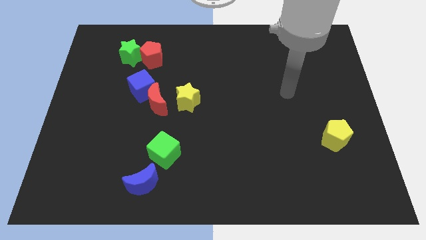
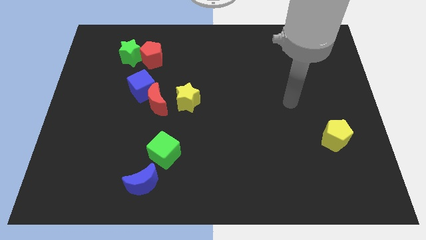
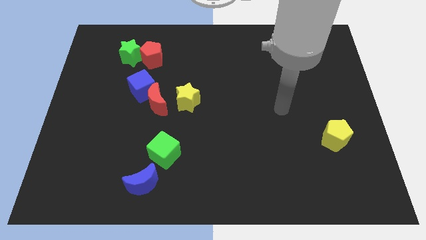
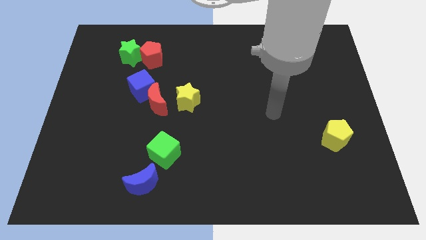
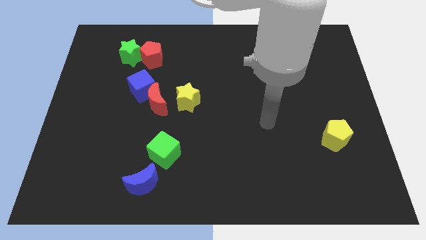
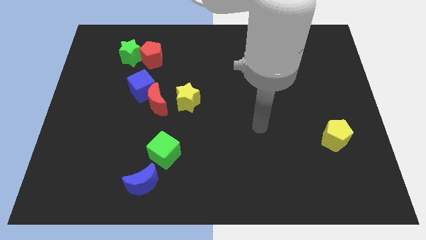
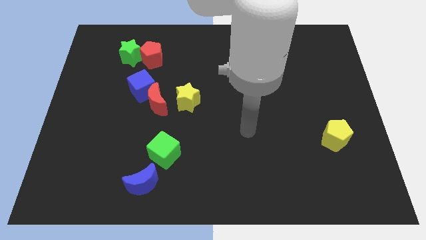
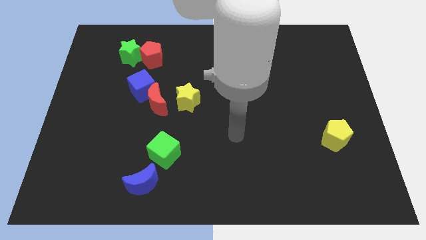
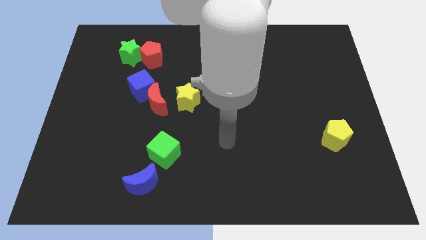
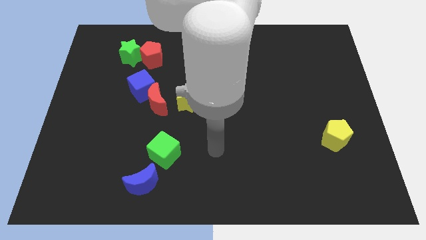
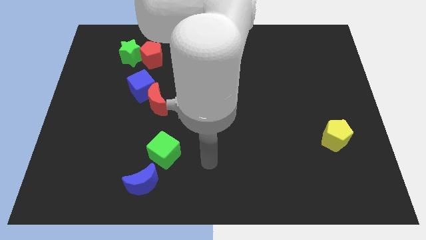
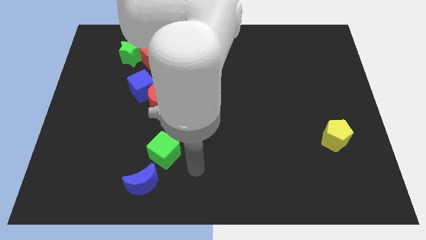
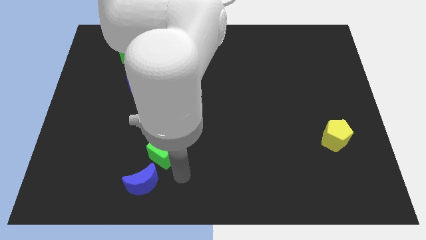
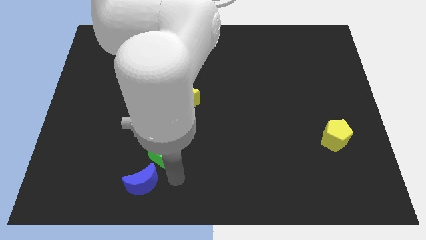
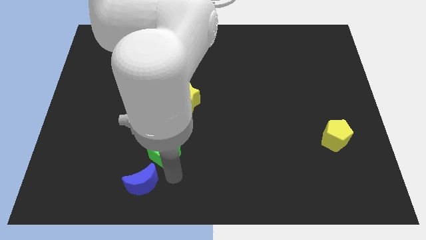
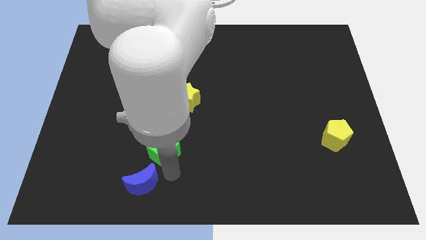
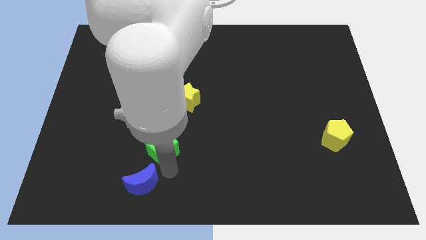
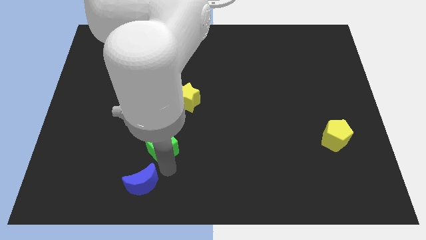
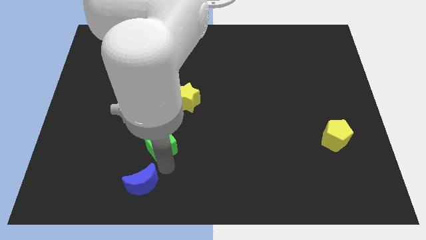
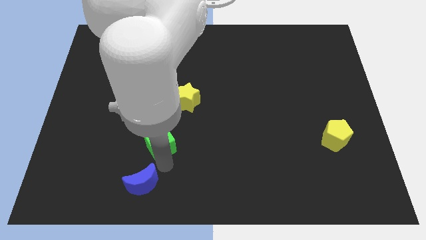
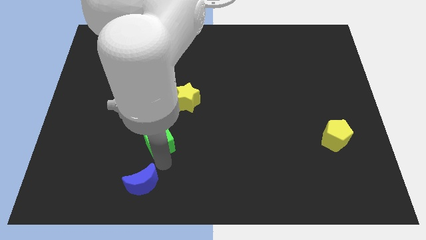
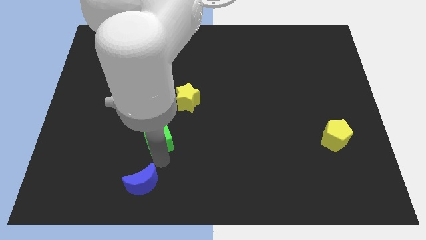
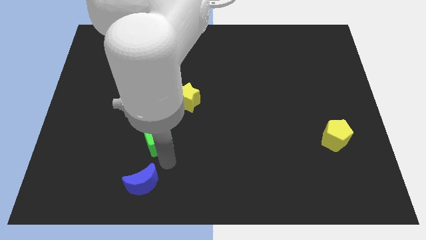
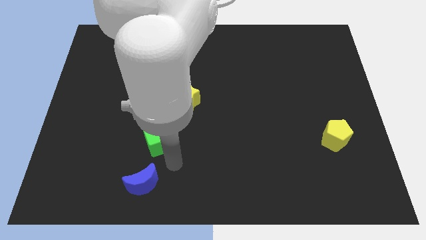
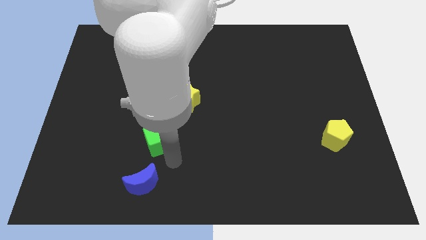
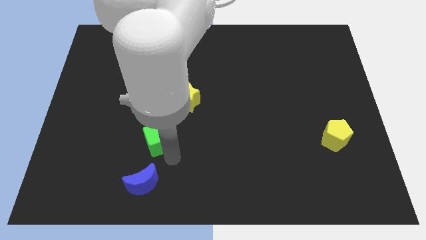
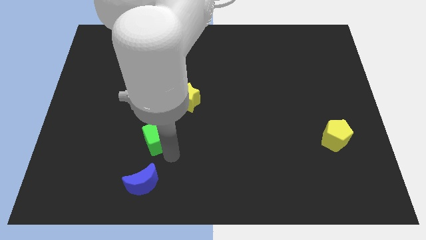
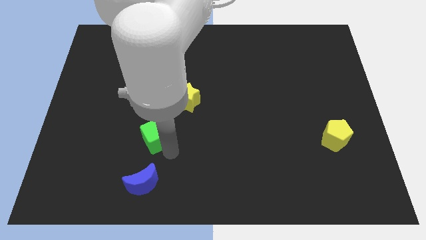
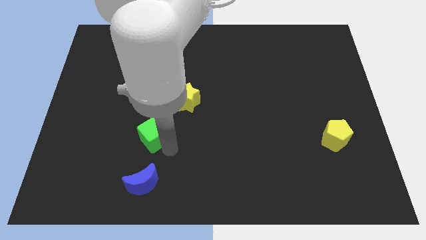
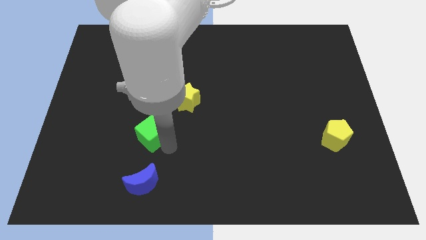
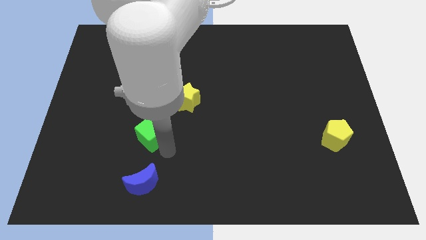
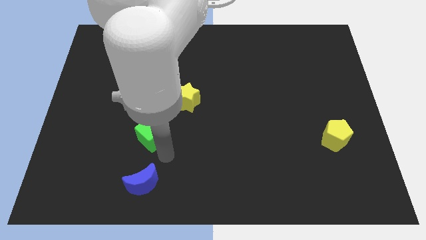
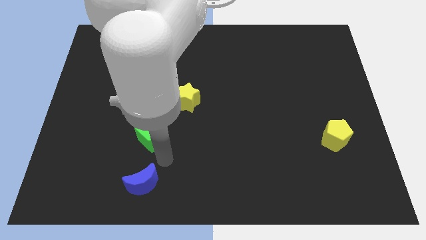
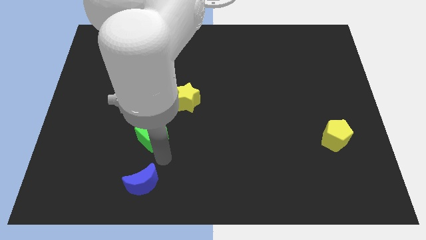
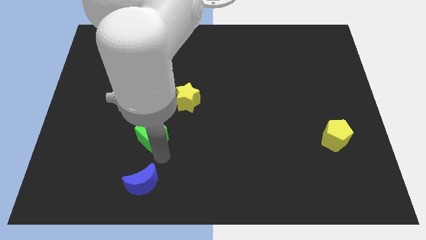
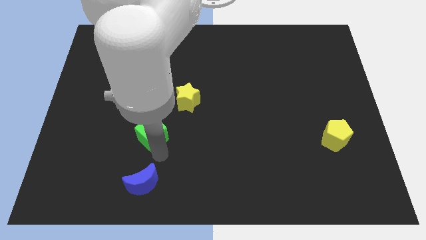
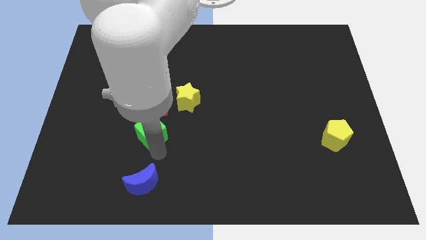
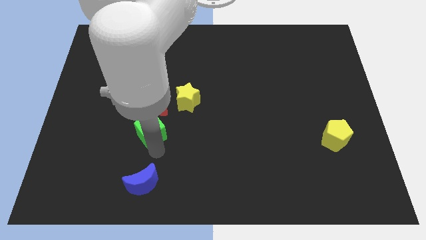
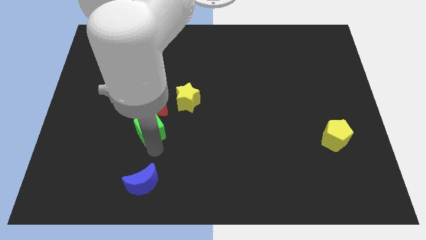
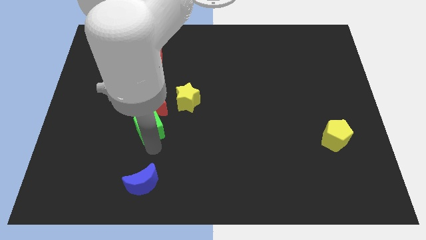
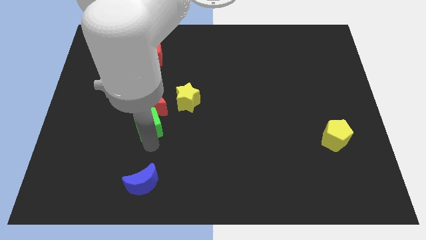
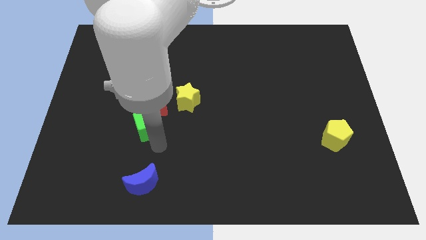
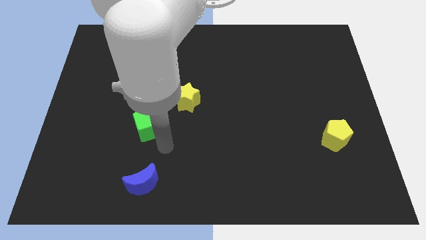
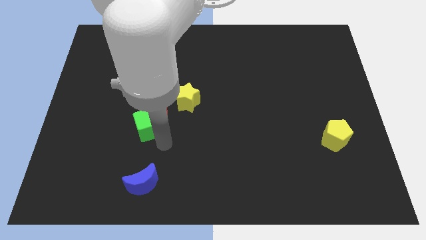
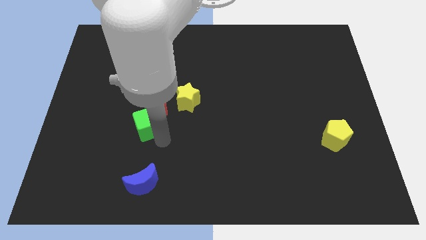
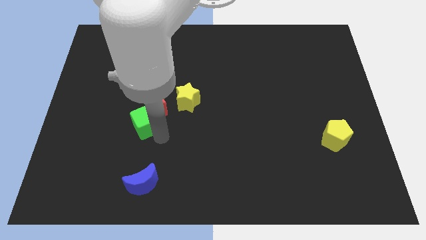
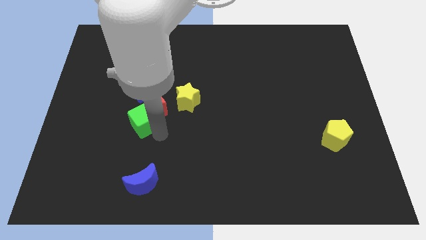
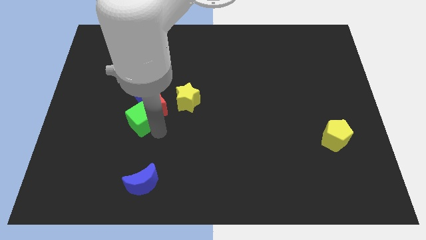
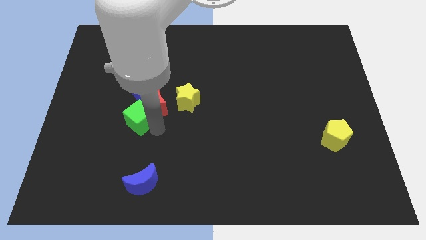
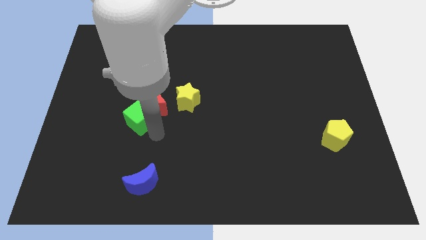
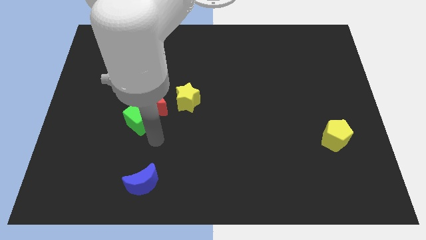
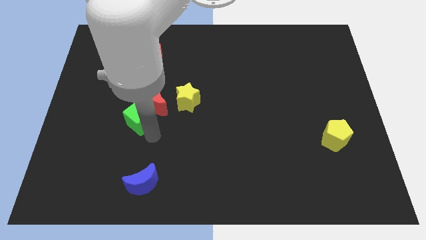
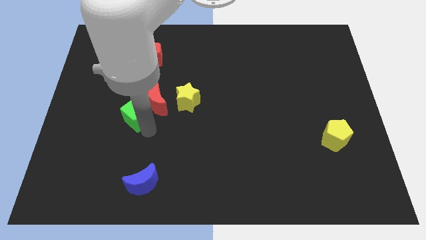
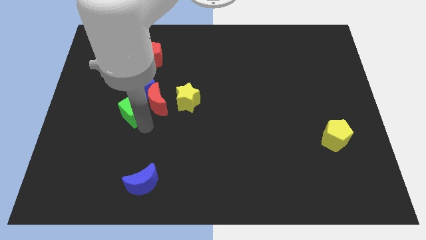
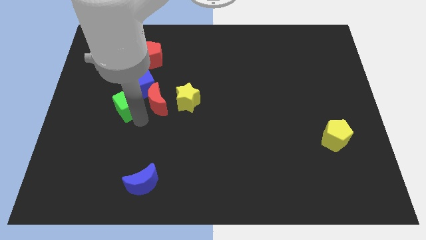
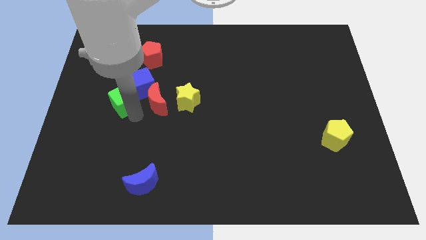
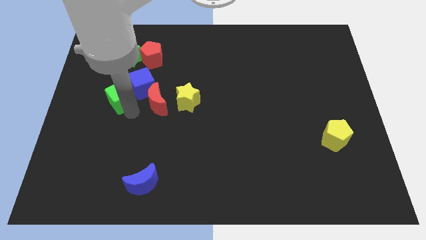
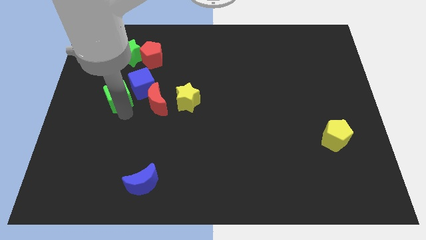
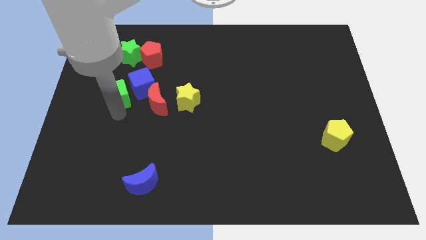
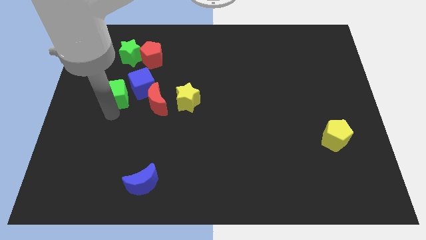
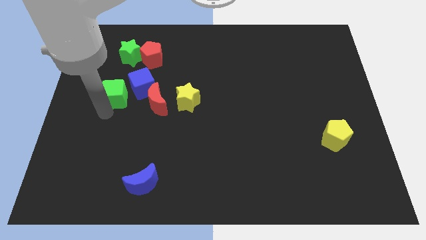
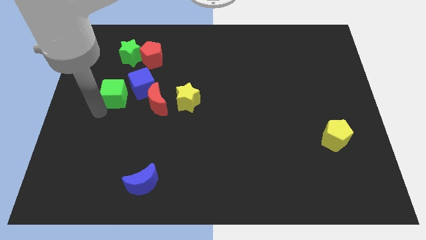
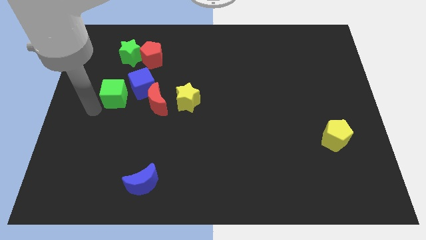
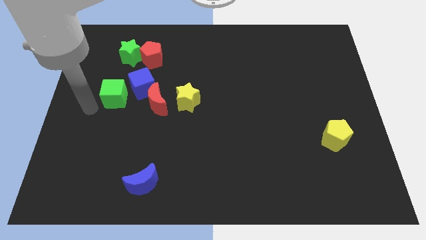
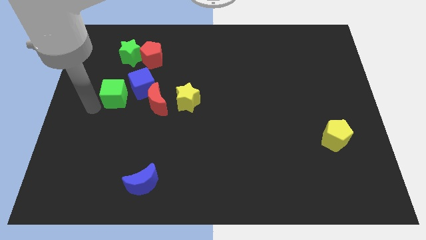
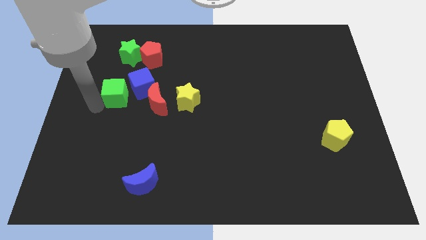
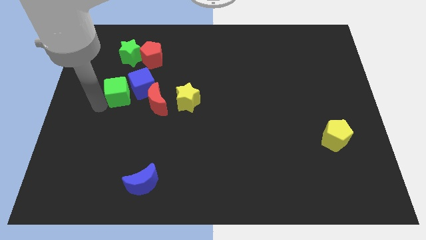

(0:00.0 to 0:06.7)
slide the green cube to the top left side of the red moon

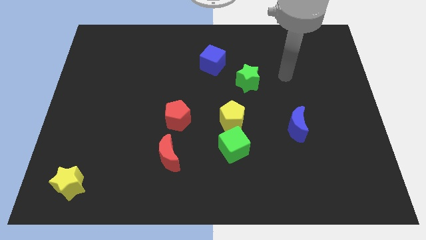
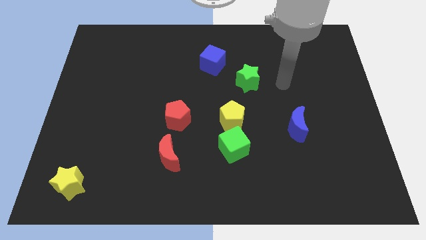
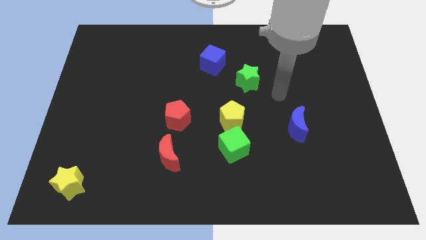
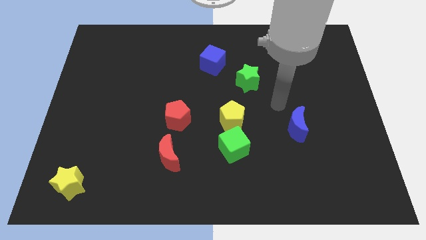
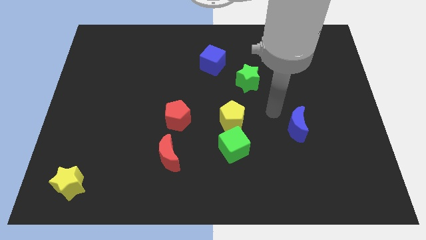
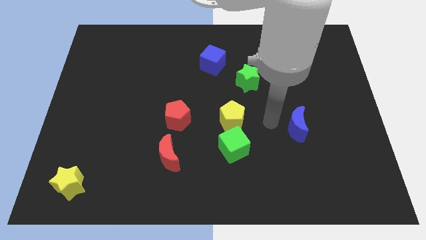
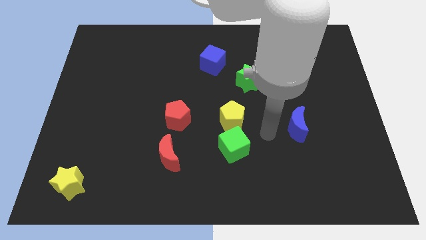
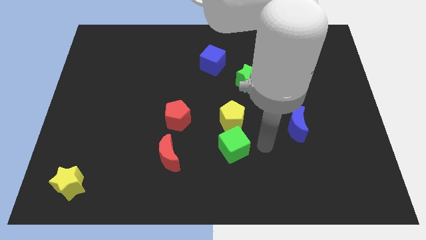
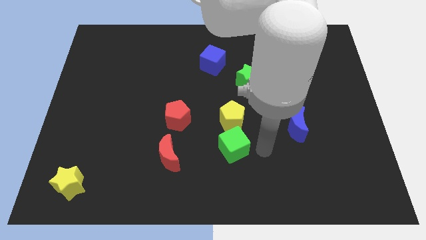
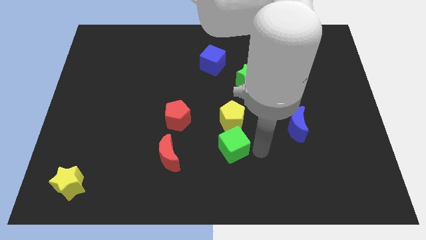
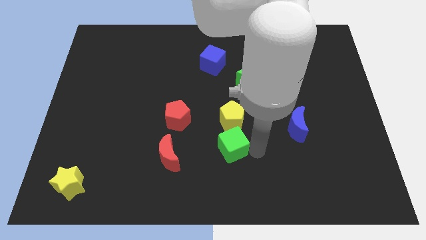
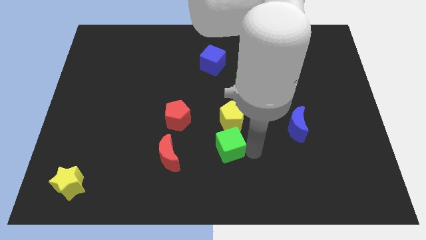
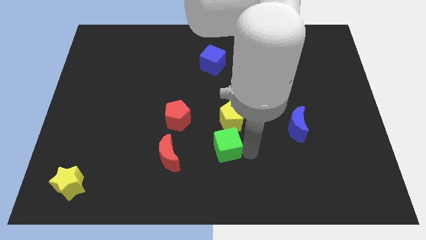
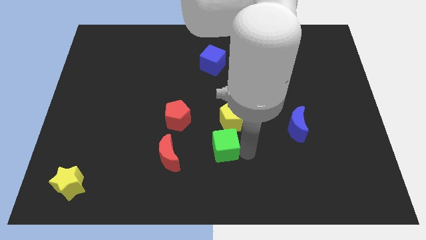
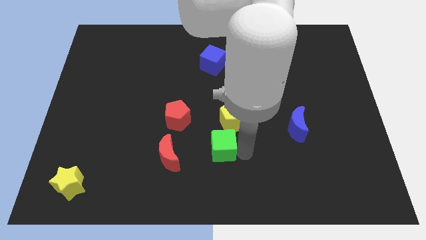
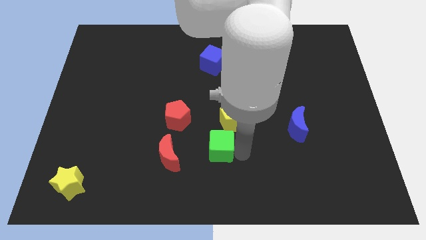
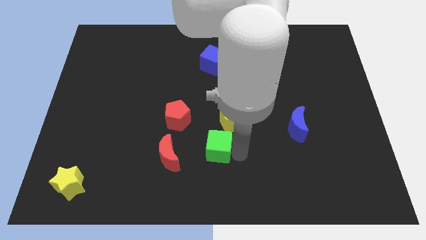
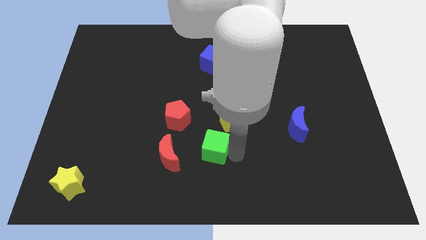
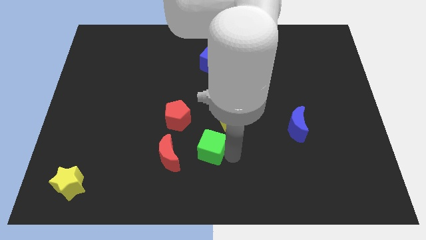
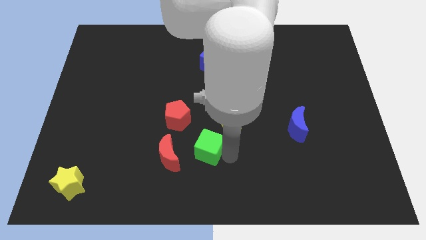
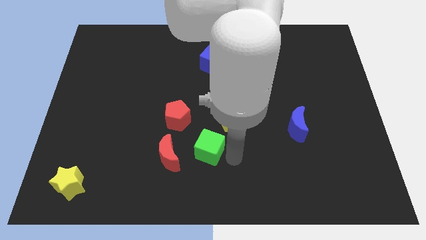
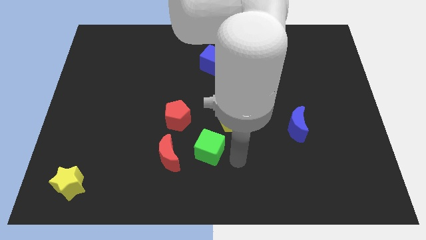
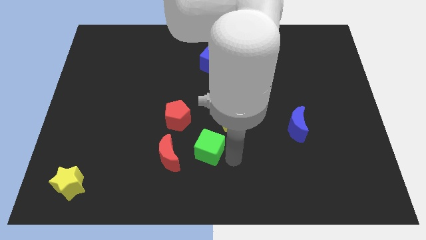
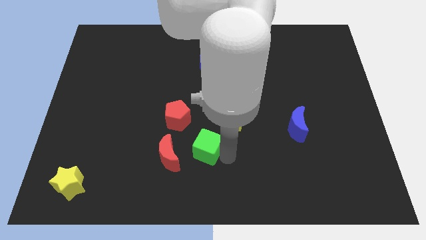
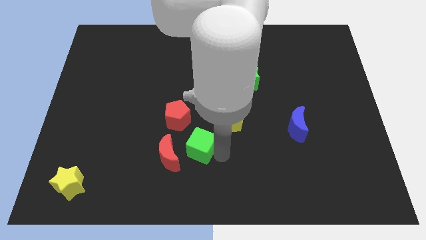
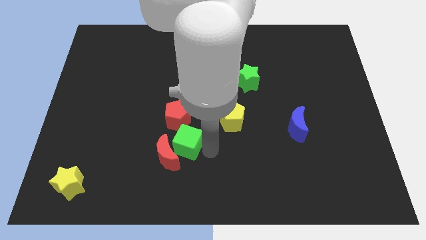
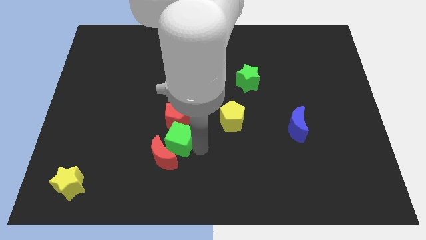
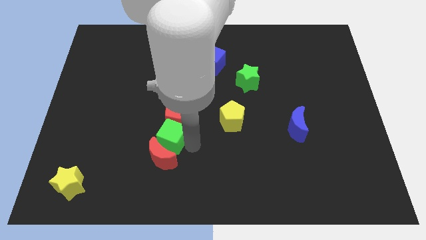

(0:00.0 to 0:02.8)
slide the green cube to the bottom left side of the red pentagon
